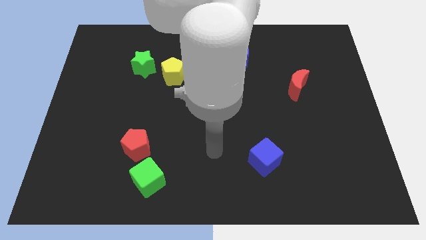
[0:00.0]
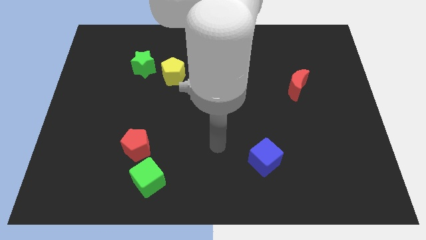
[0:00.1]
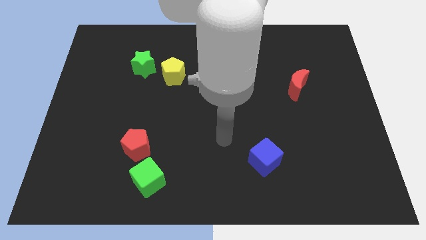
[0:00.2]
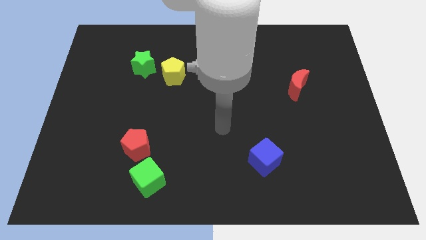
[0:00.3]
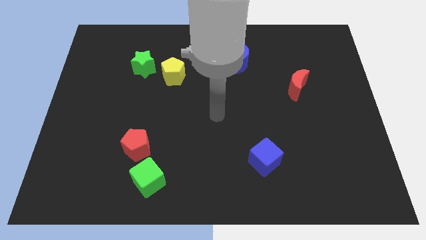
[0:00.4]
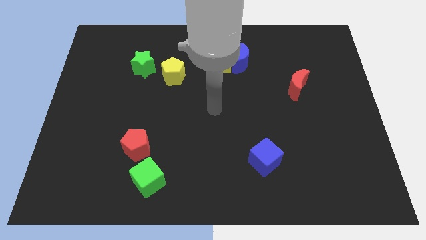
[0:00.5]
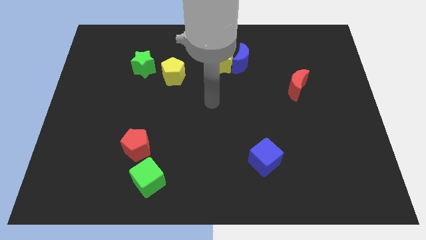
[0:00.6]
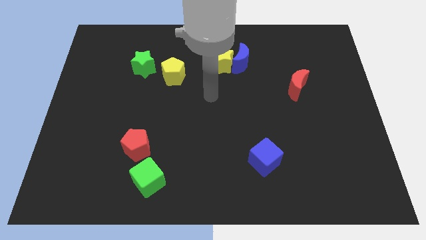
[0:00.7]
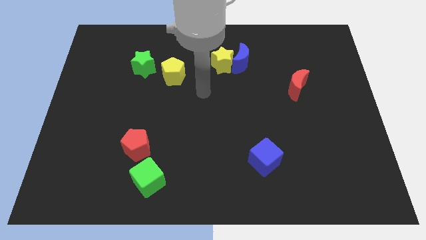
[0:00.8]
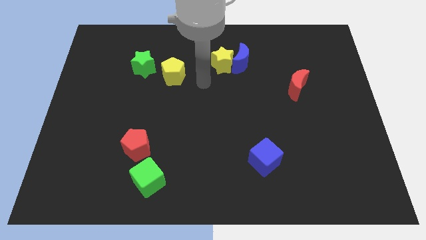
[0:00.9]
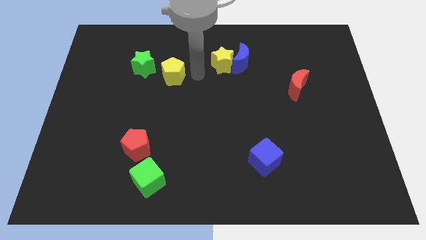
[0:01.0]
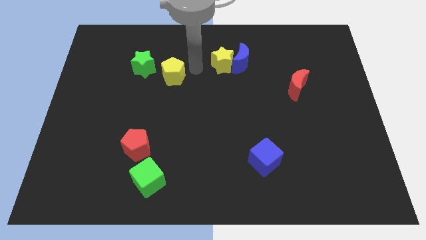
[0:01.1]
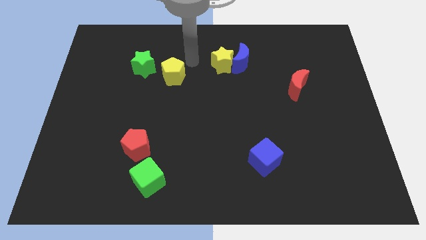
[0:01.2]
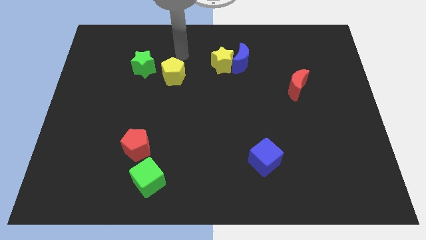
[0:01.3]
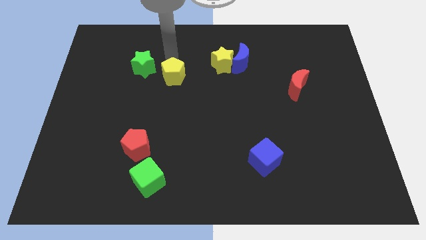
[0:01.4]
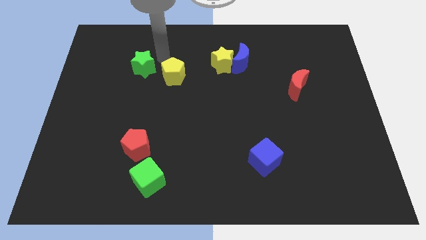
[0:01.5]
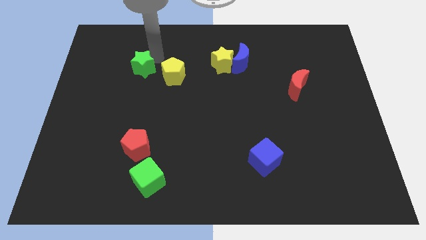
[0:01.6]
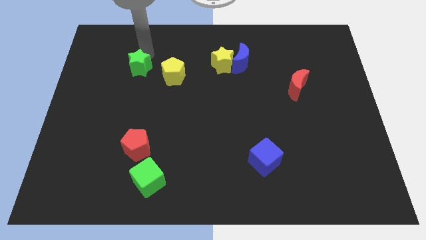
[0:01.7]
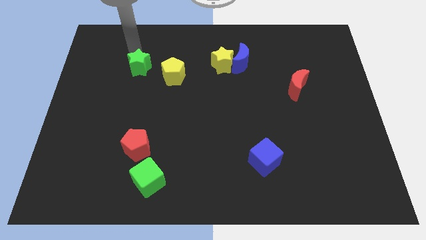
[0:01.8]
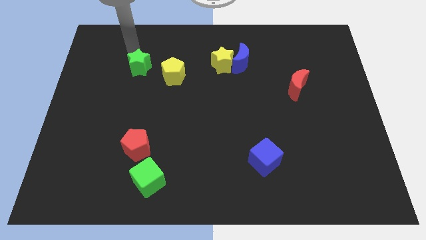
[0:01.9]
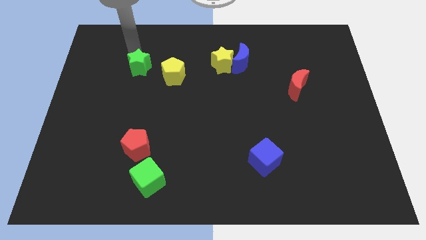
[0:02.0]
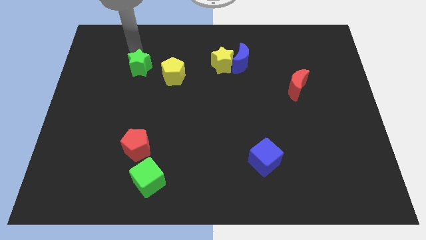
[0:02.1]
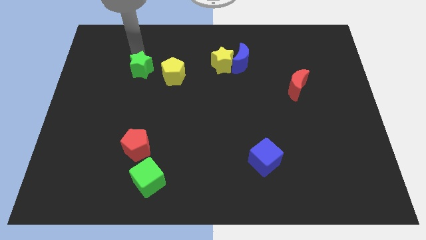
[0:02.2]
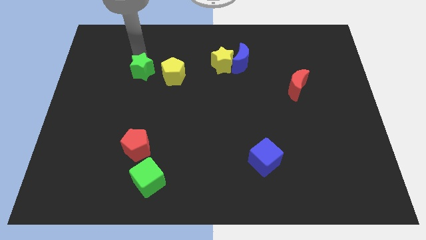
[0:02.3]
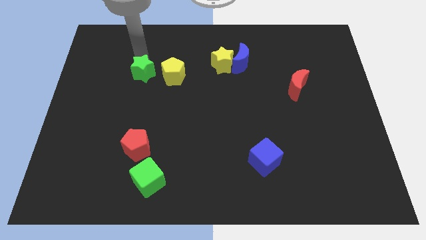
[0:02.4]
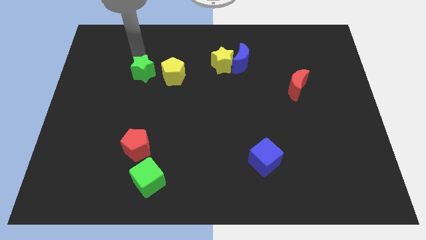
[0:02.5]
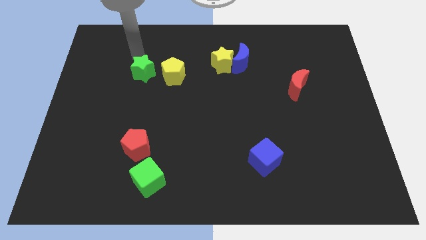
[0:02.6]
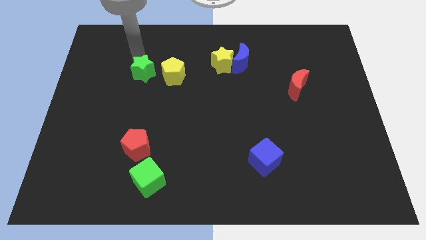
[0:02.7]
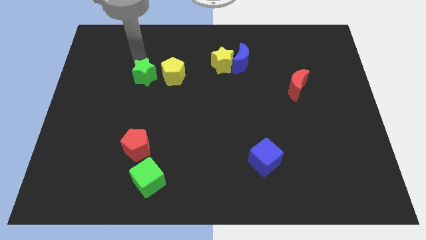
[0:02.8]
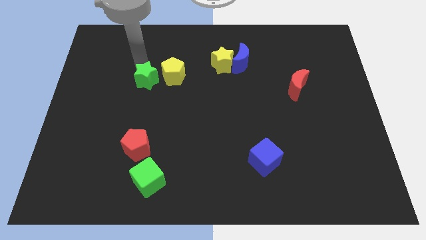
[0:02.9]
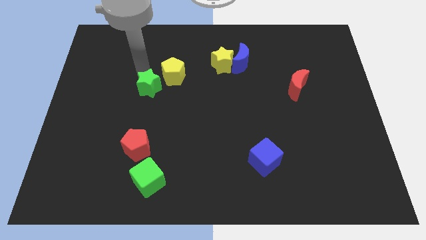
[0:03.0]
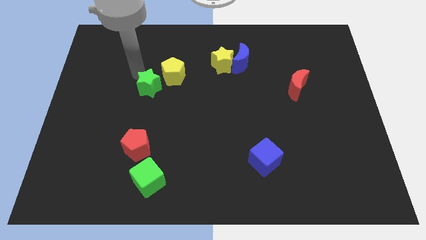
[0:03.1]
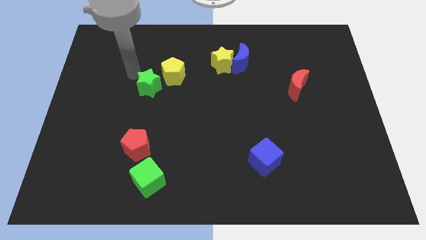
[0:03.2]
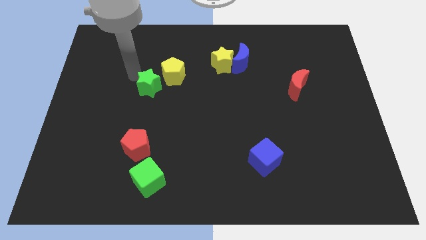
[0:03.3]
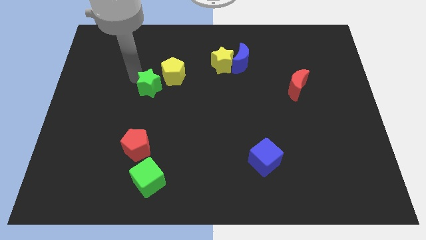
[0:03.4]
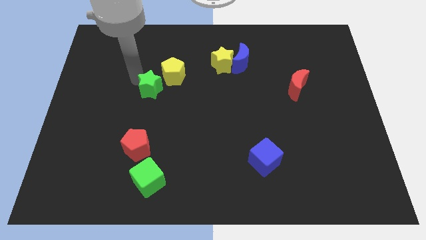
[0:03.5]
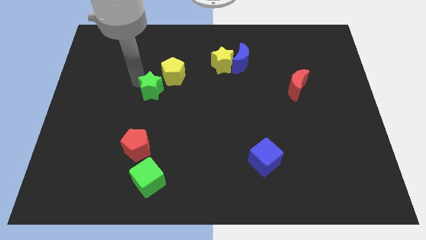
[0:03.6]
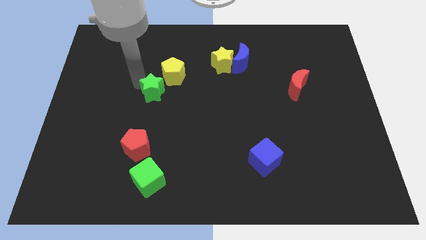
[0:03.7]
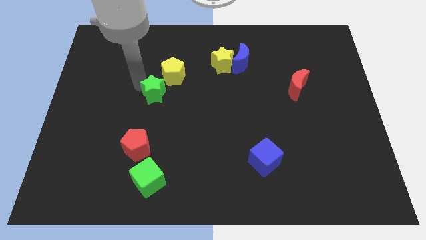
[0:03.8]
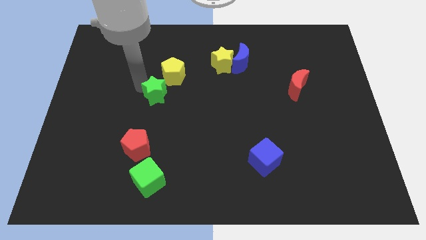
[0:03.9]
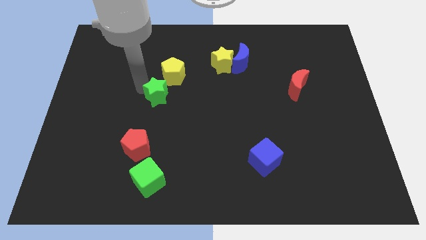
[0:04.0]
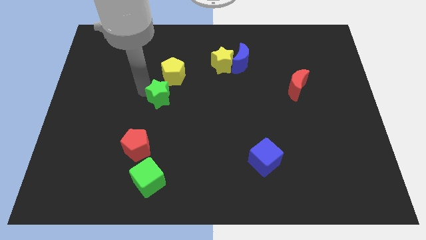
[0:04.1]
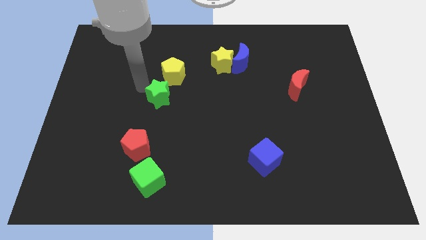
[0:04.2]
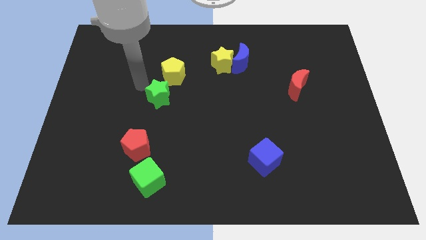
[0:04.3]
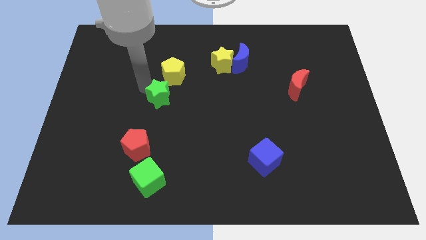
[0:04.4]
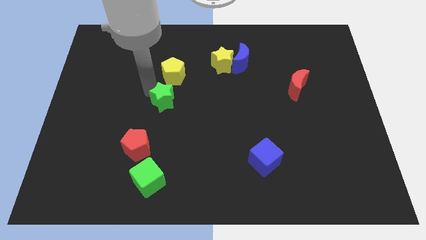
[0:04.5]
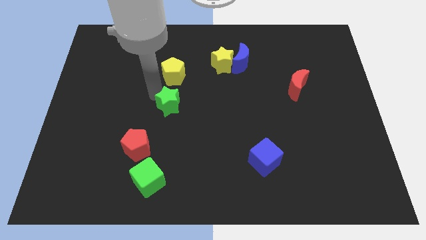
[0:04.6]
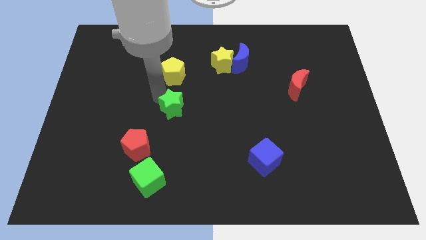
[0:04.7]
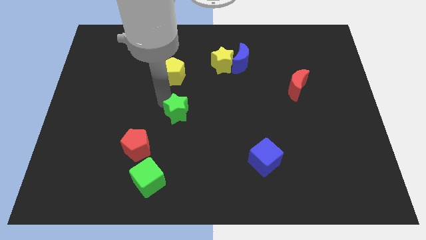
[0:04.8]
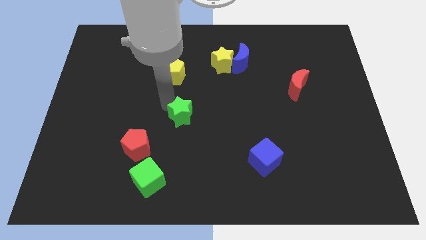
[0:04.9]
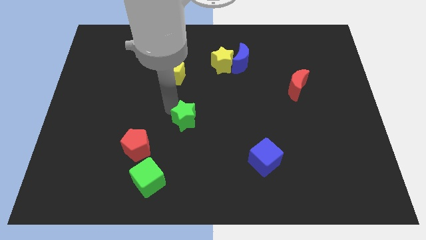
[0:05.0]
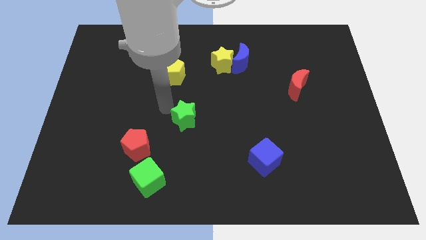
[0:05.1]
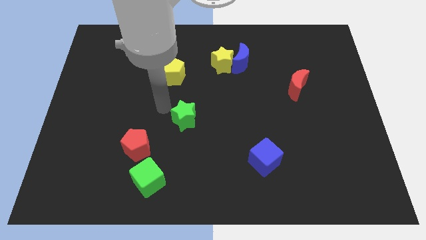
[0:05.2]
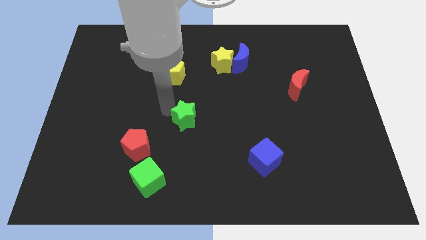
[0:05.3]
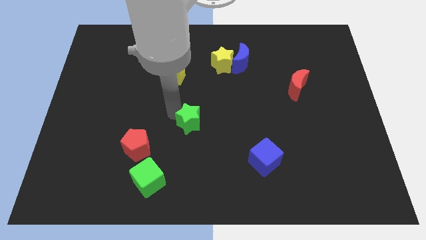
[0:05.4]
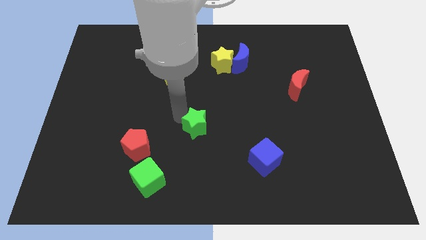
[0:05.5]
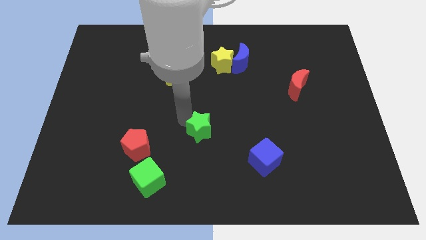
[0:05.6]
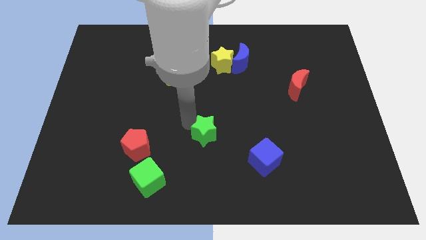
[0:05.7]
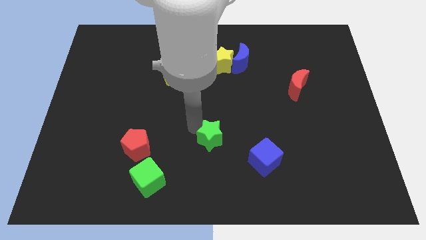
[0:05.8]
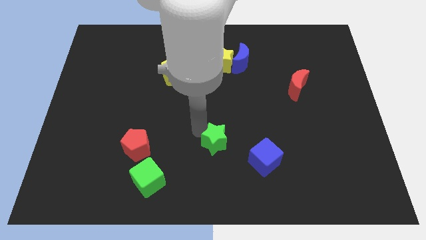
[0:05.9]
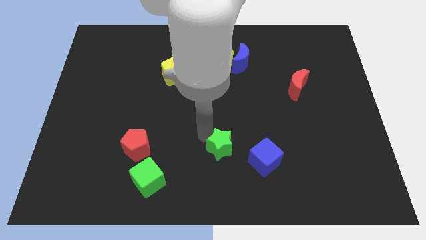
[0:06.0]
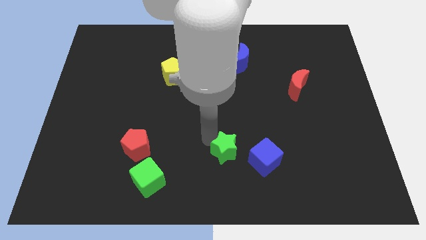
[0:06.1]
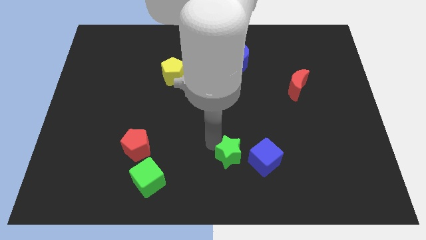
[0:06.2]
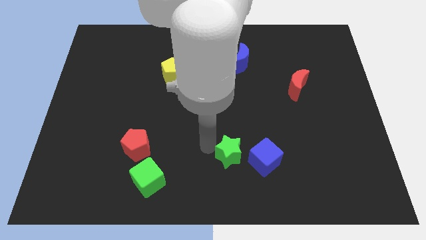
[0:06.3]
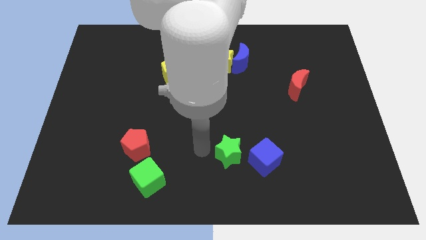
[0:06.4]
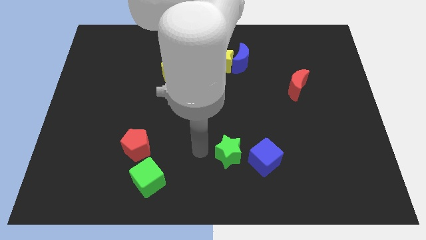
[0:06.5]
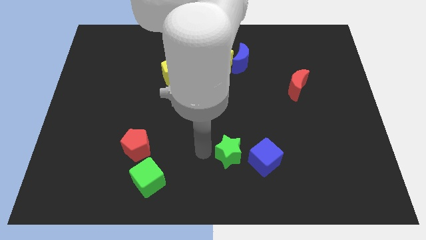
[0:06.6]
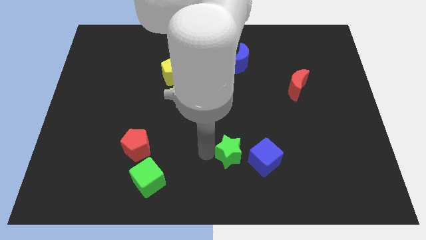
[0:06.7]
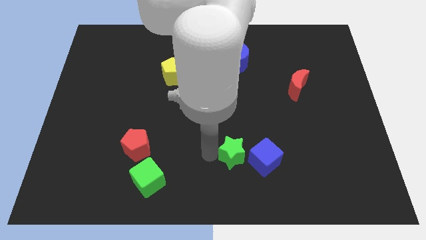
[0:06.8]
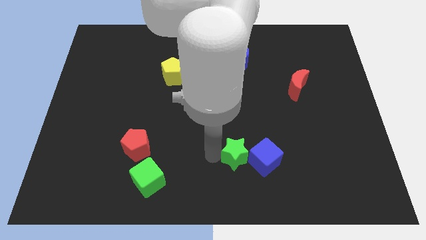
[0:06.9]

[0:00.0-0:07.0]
put the green star towards the blue cube
